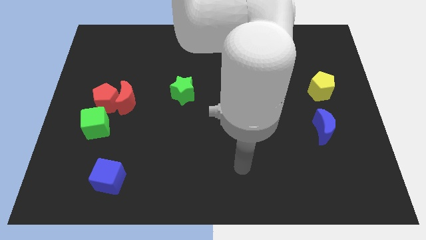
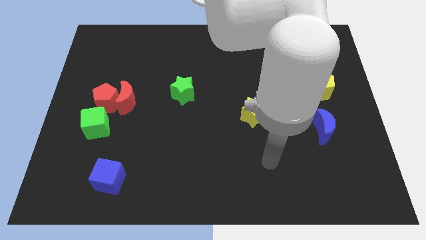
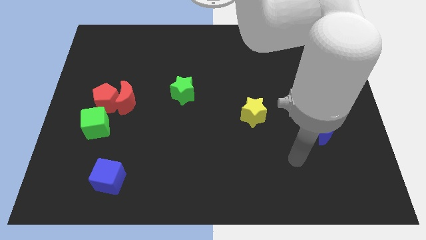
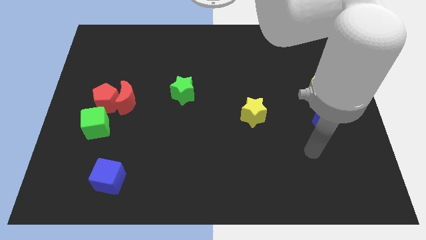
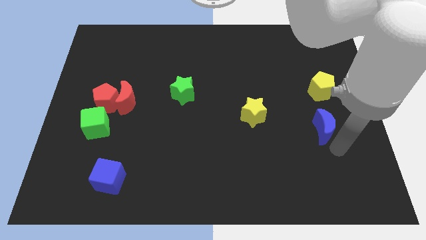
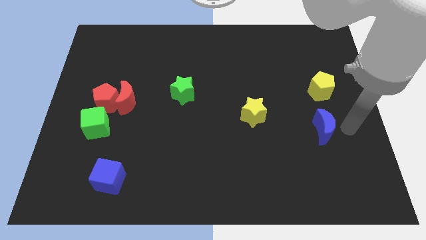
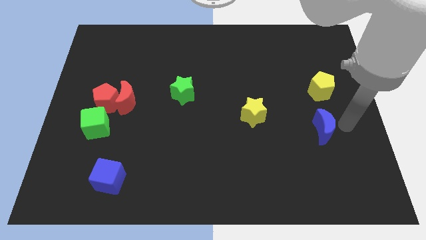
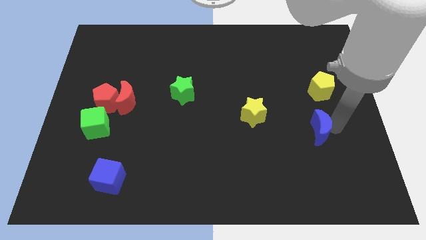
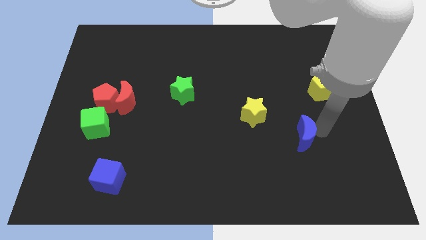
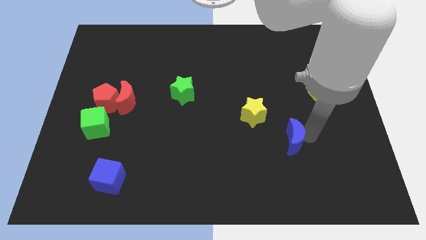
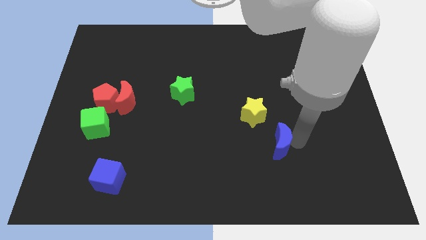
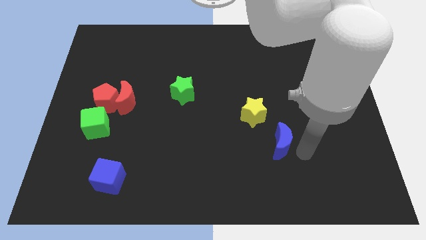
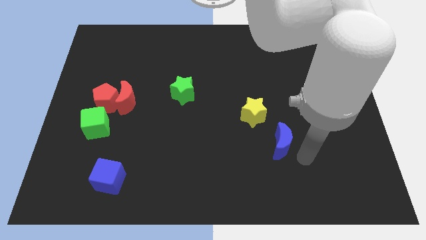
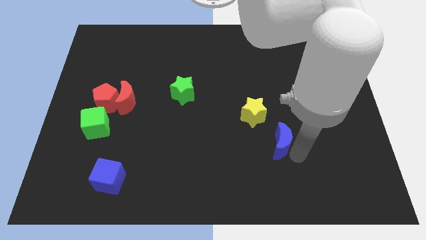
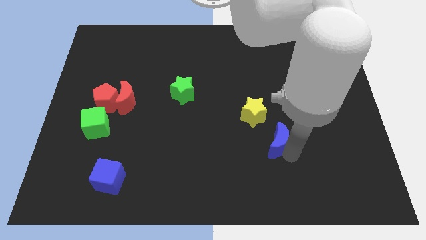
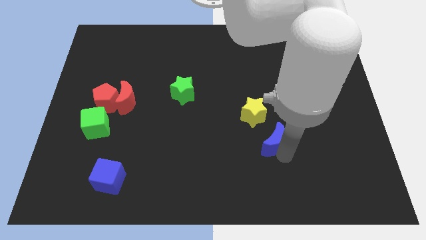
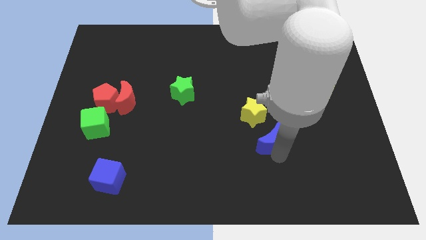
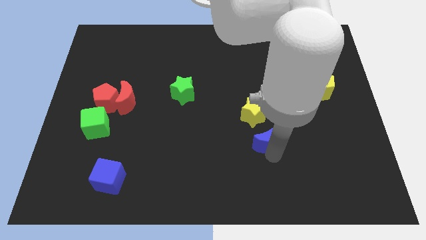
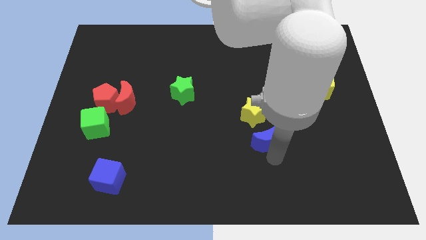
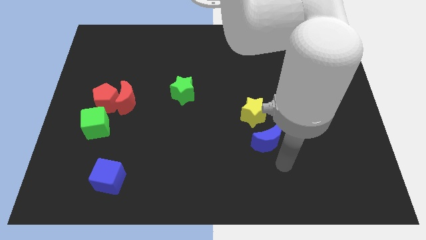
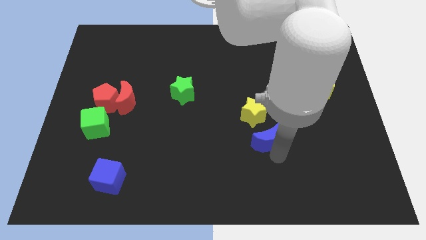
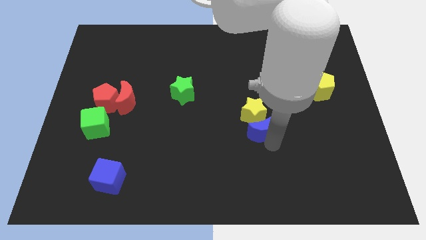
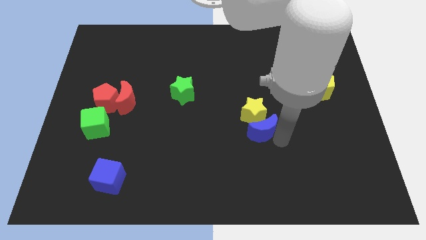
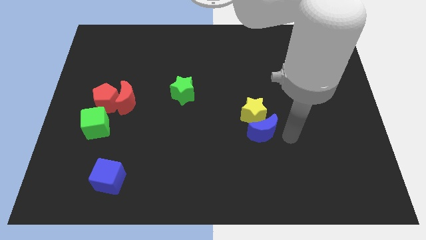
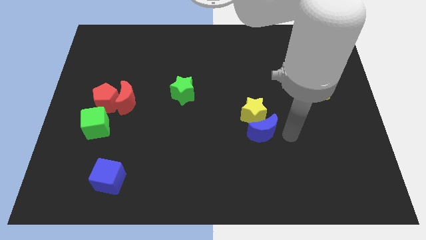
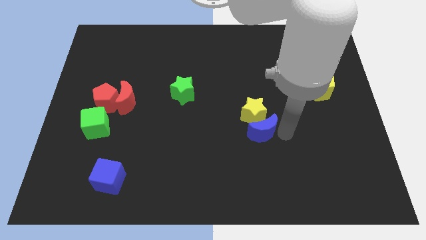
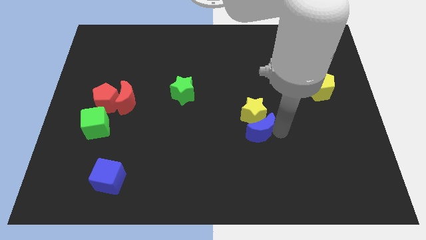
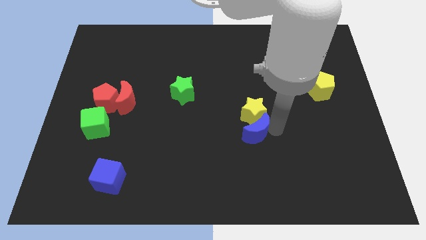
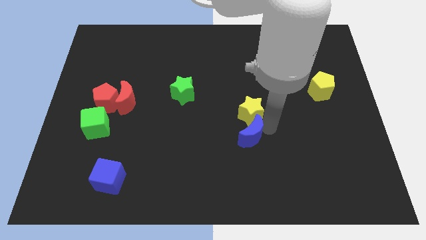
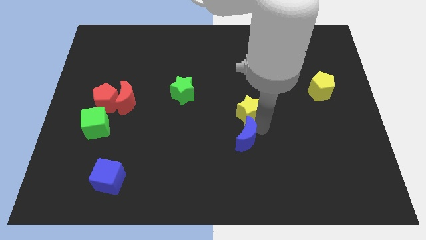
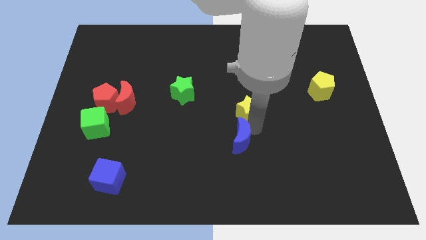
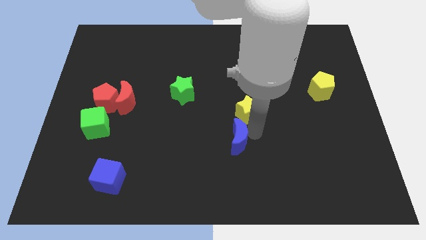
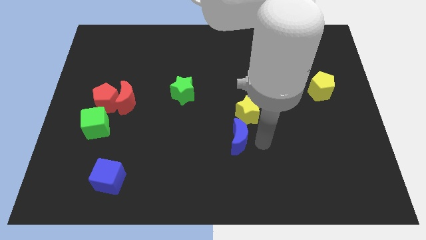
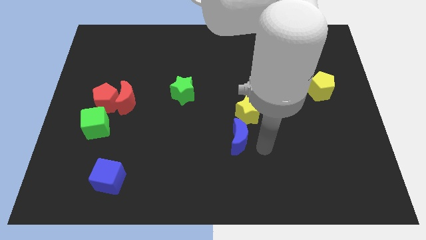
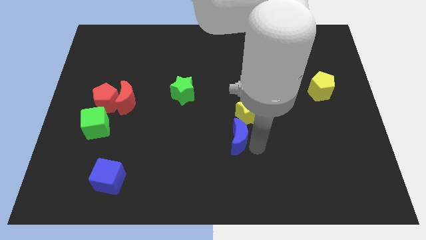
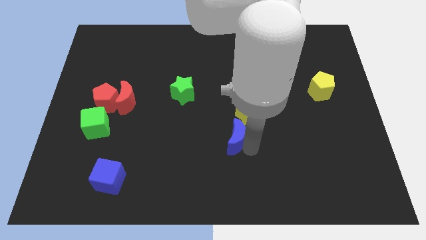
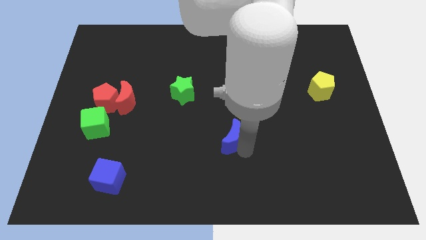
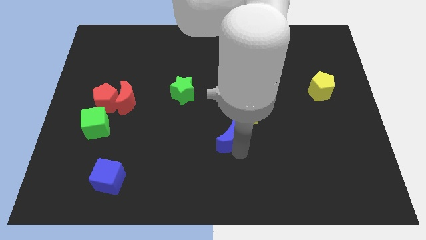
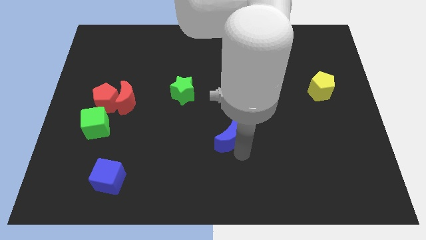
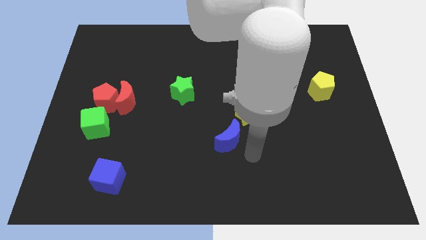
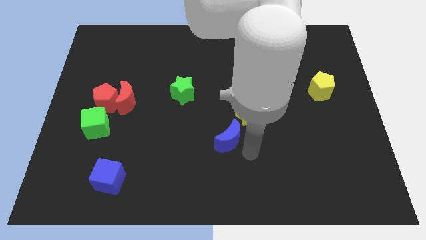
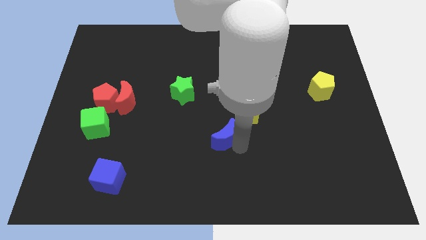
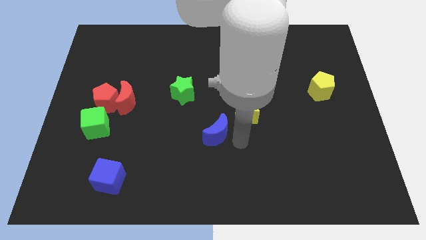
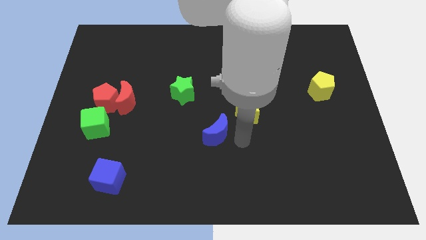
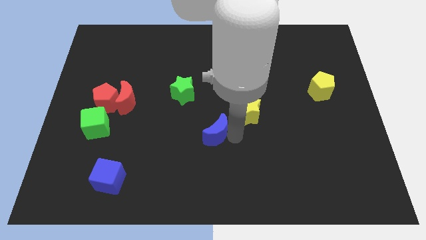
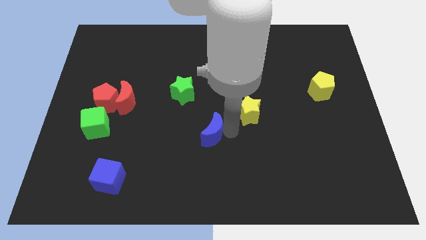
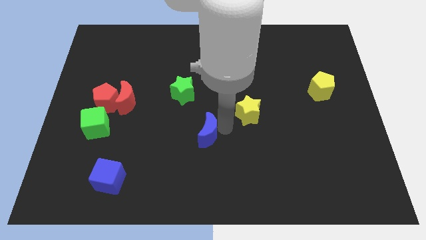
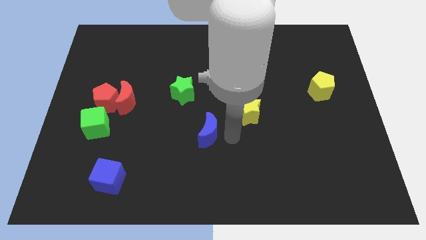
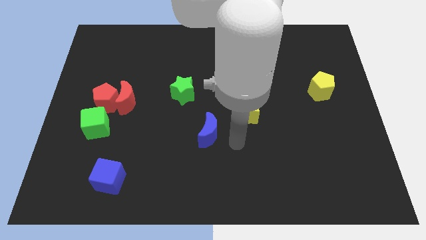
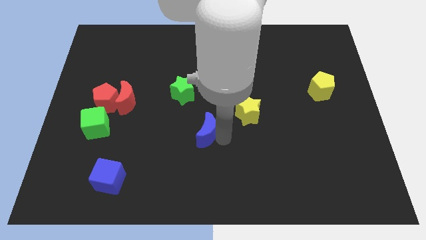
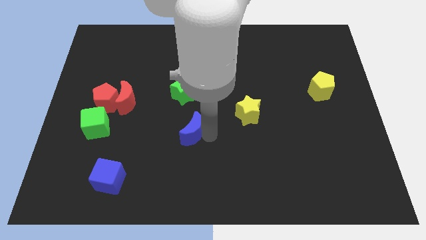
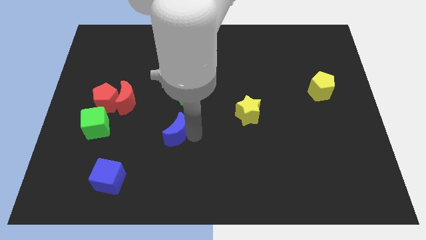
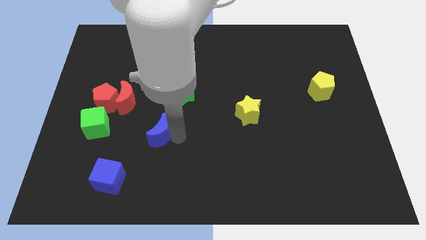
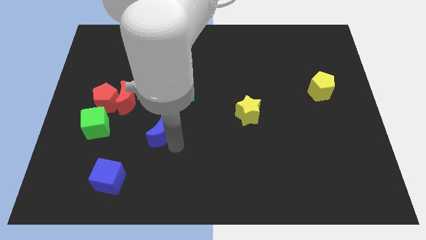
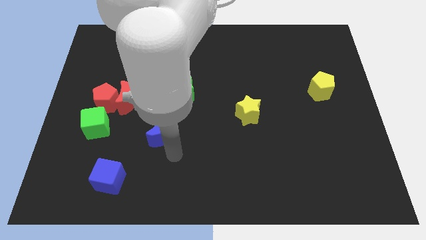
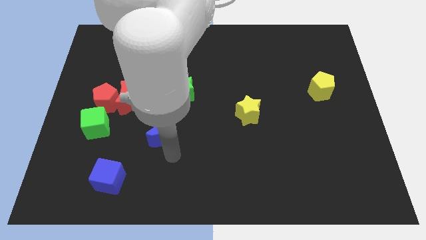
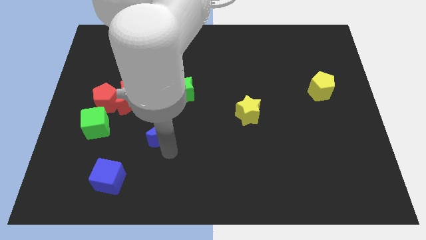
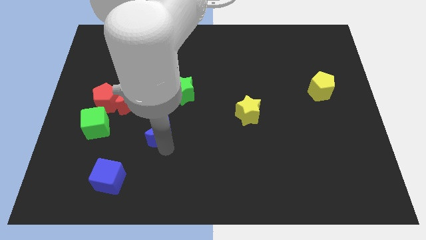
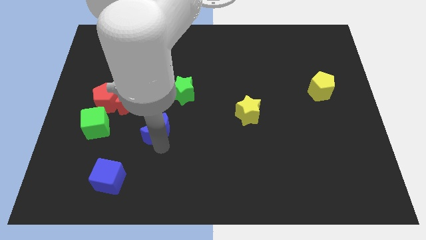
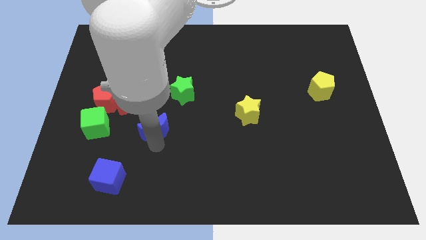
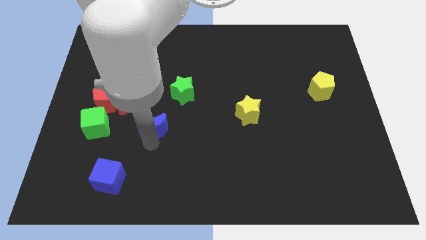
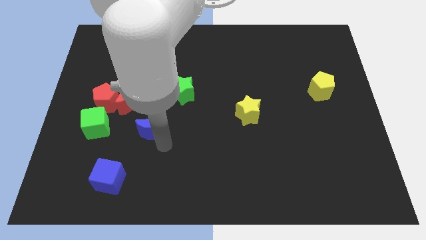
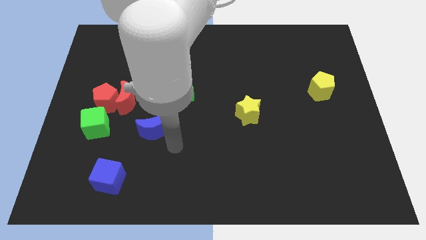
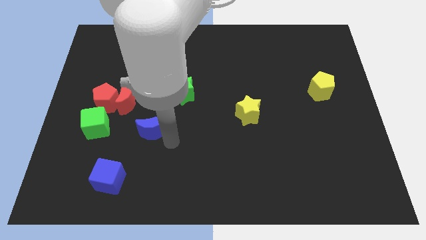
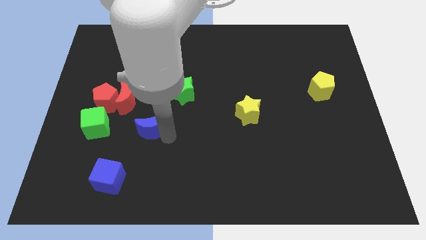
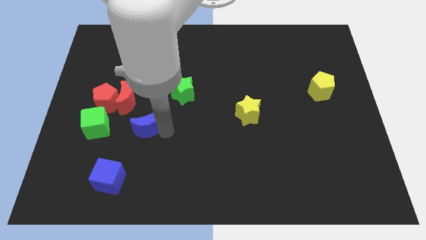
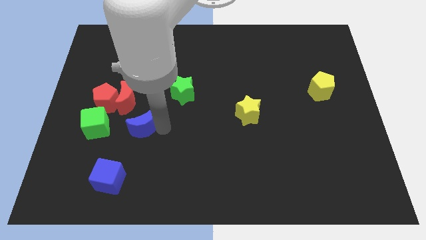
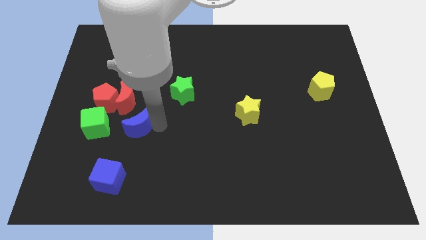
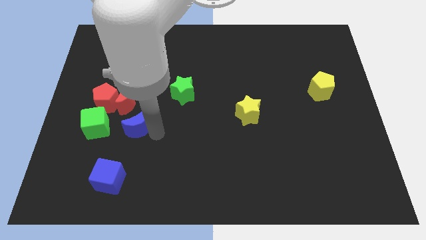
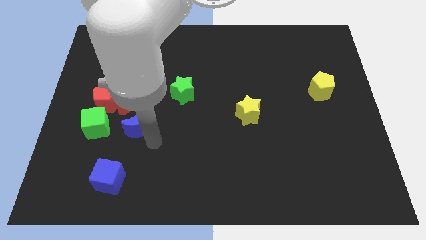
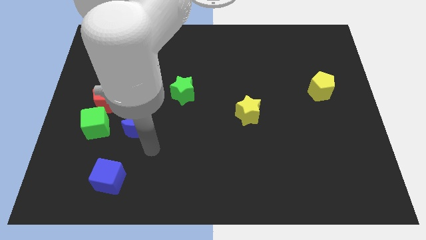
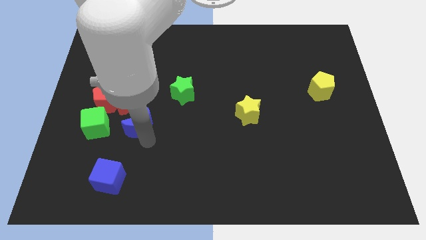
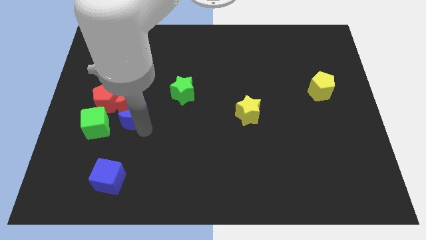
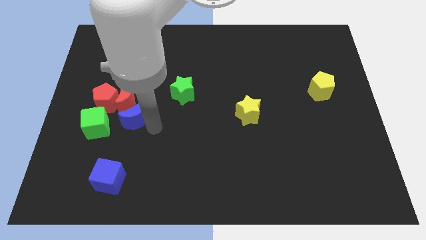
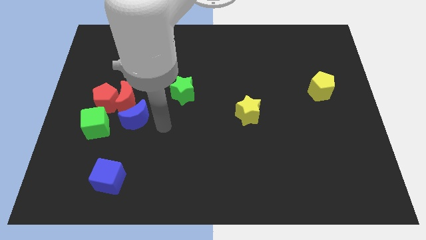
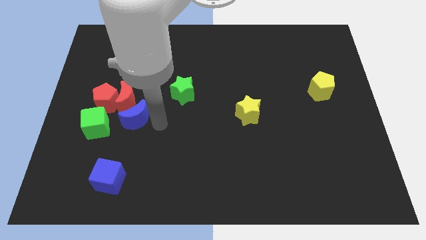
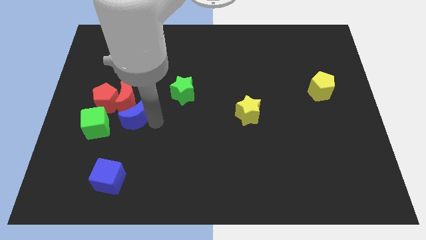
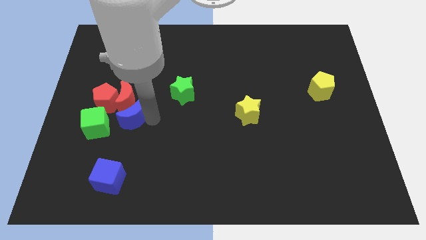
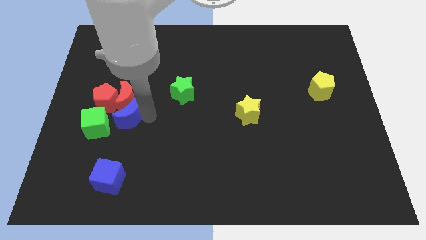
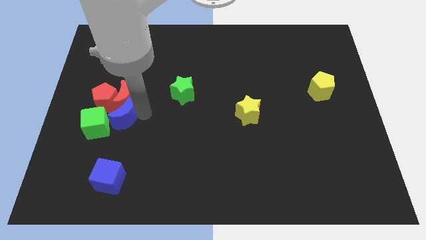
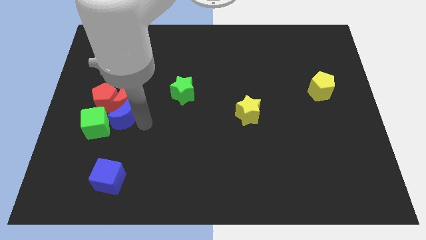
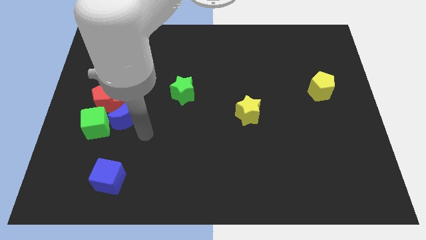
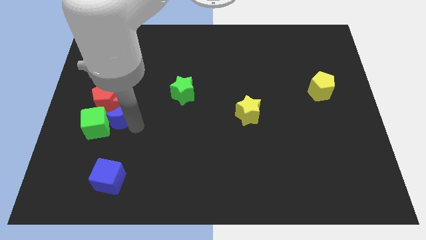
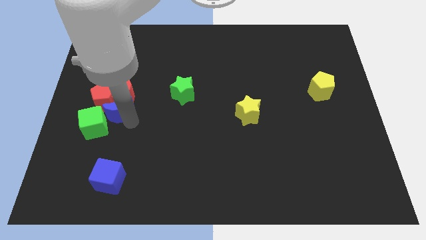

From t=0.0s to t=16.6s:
move the blue moon to the red pentagon
